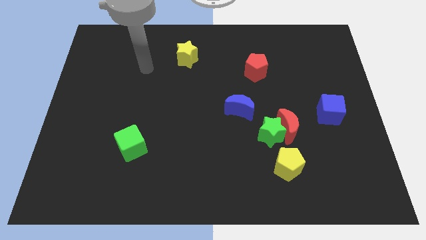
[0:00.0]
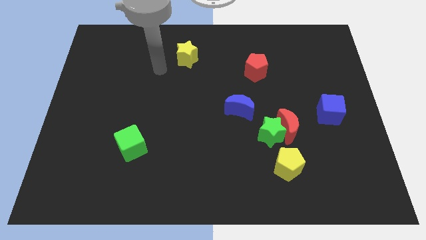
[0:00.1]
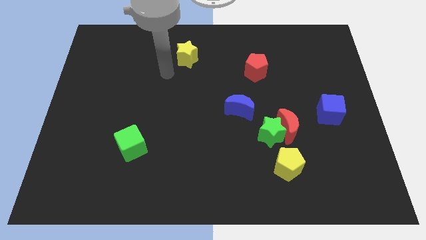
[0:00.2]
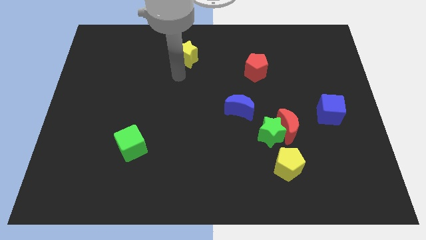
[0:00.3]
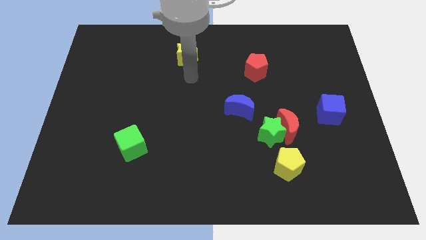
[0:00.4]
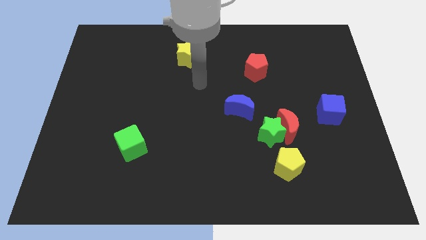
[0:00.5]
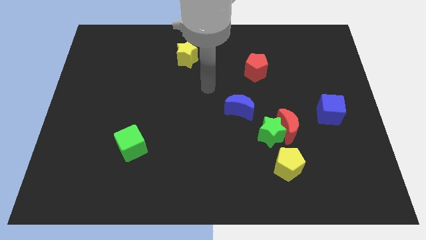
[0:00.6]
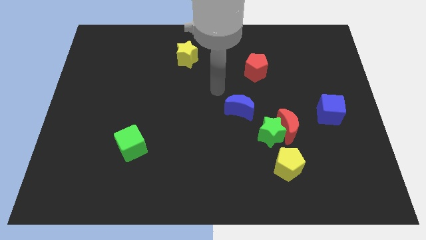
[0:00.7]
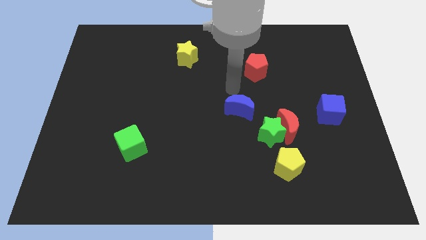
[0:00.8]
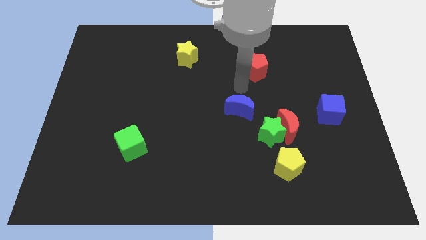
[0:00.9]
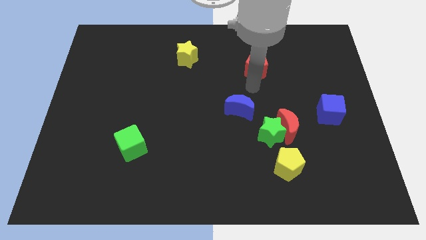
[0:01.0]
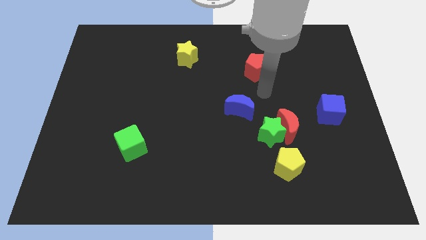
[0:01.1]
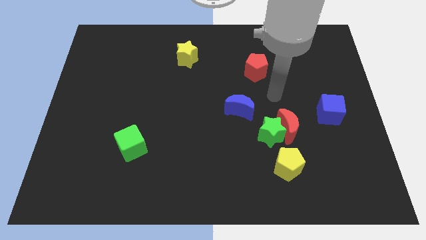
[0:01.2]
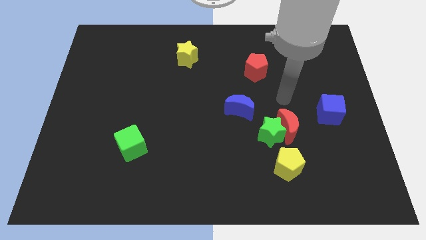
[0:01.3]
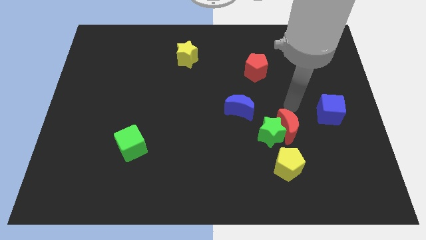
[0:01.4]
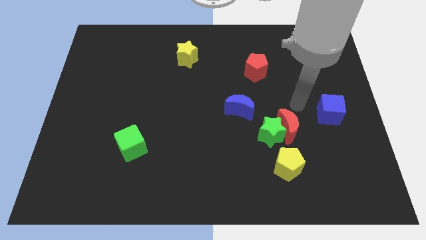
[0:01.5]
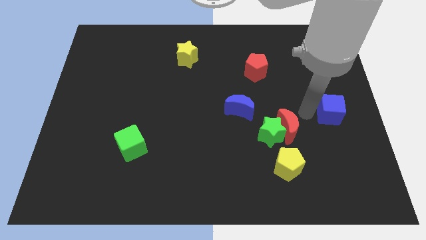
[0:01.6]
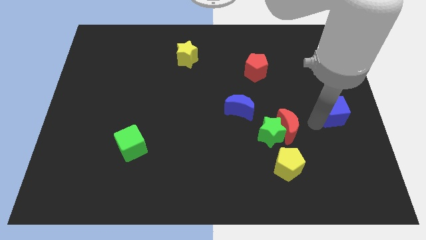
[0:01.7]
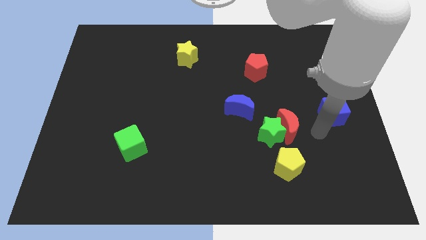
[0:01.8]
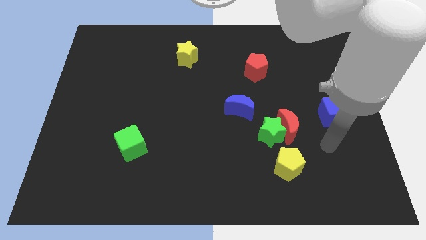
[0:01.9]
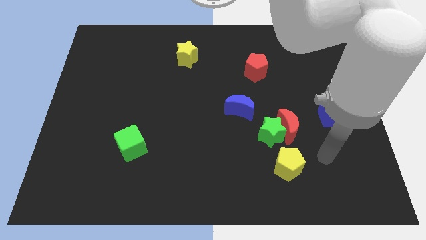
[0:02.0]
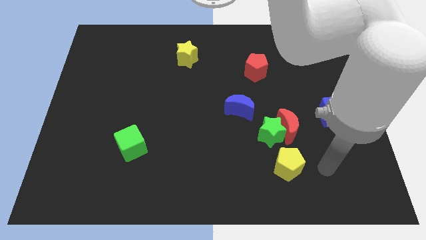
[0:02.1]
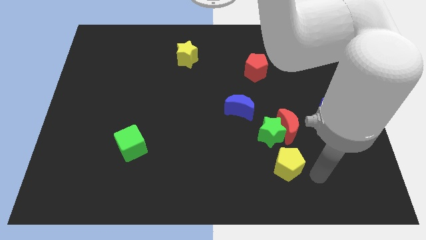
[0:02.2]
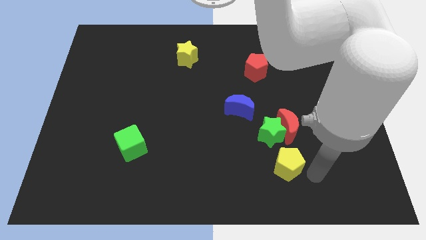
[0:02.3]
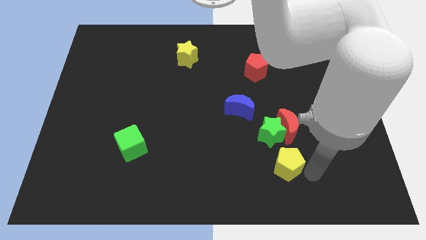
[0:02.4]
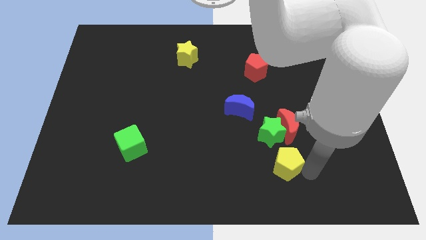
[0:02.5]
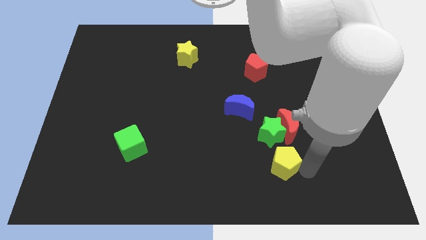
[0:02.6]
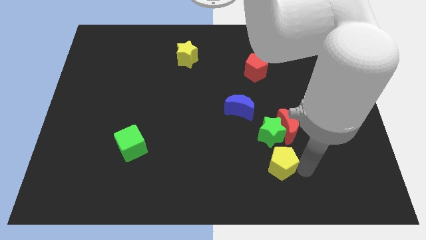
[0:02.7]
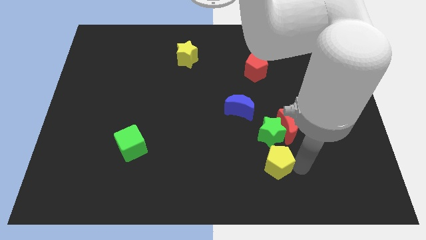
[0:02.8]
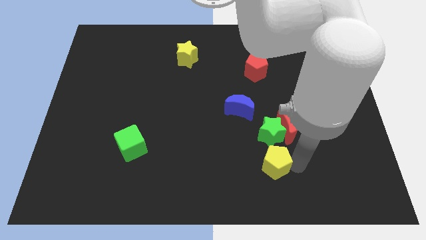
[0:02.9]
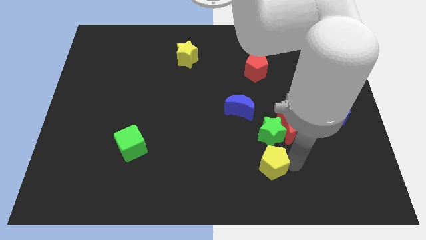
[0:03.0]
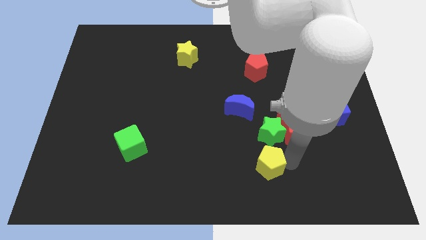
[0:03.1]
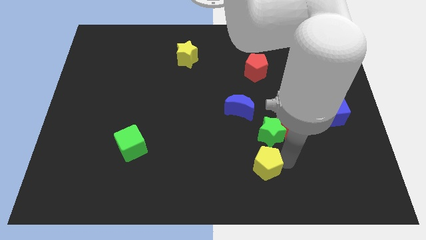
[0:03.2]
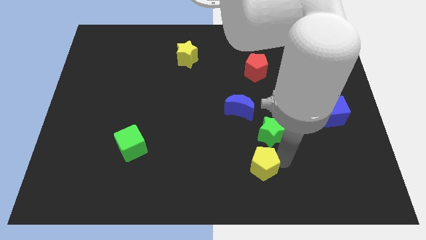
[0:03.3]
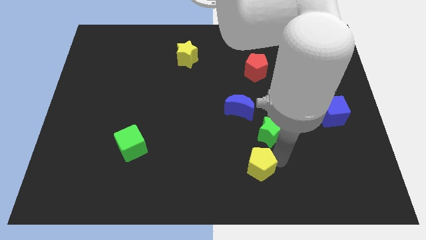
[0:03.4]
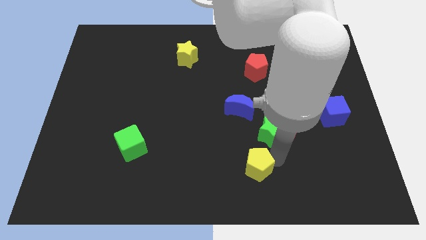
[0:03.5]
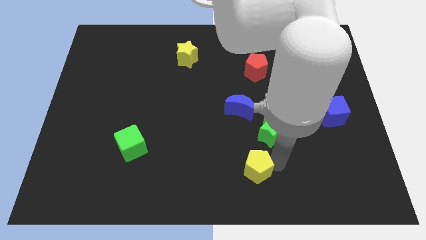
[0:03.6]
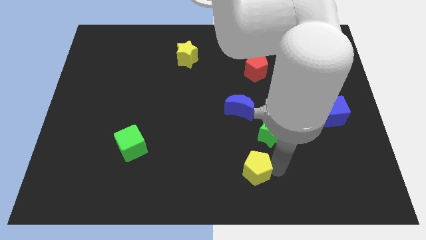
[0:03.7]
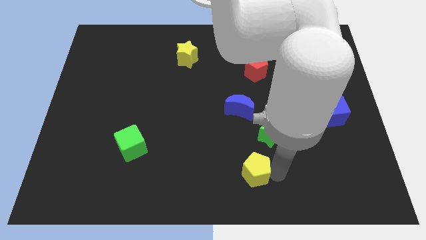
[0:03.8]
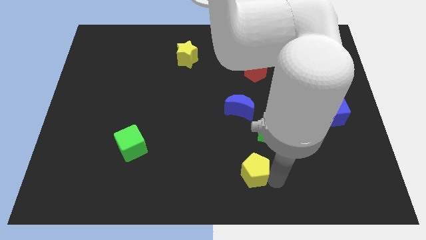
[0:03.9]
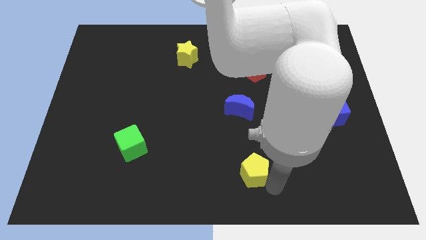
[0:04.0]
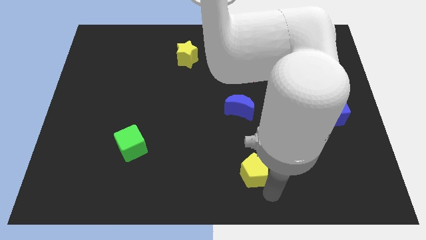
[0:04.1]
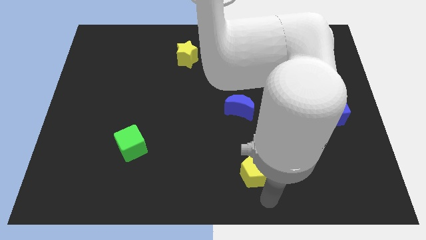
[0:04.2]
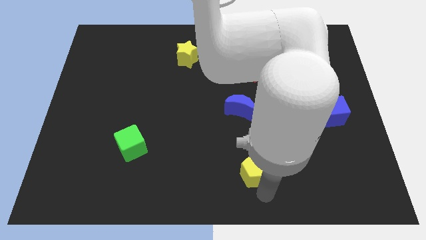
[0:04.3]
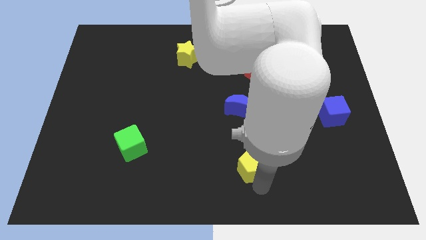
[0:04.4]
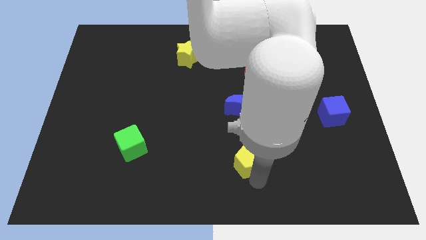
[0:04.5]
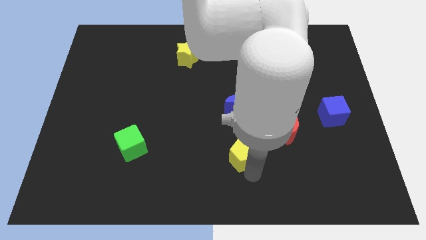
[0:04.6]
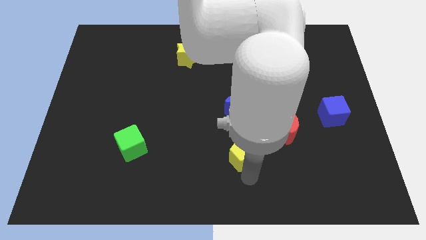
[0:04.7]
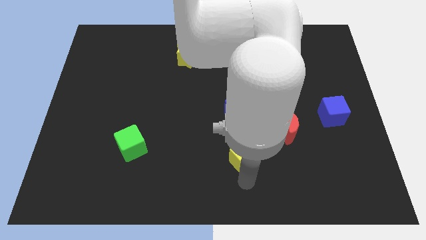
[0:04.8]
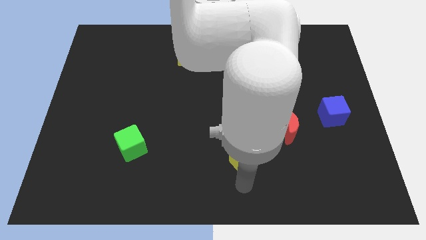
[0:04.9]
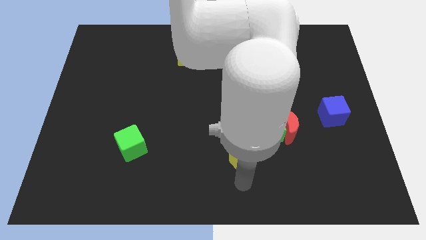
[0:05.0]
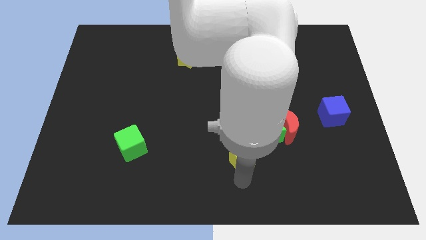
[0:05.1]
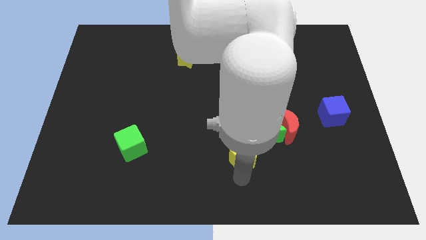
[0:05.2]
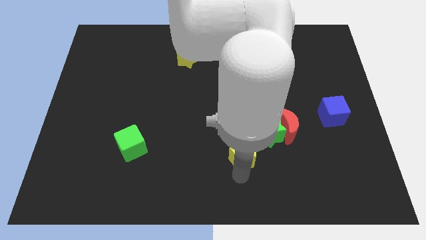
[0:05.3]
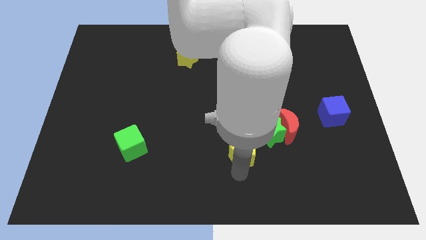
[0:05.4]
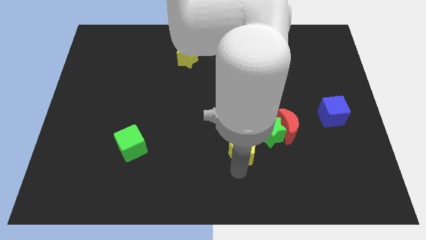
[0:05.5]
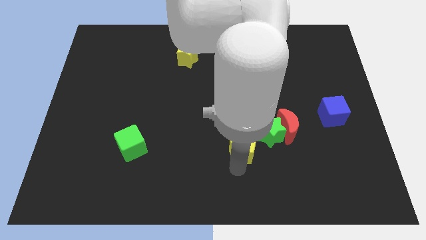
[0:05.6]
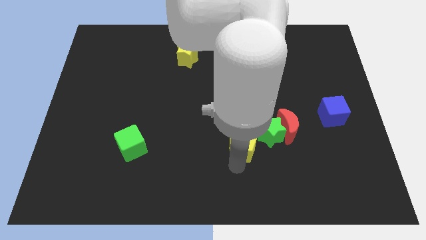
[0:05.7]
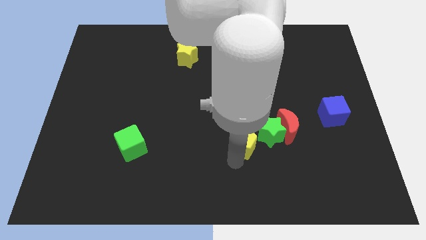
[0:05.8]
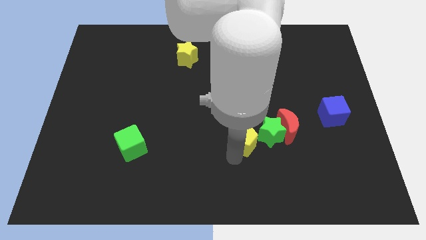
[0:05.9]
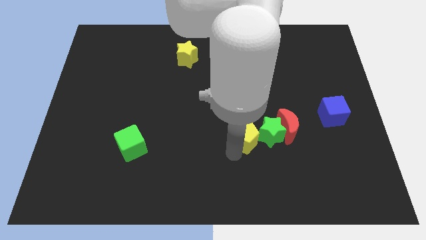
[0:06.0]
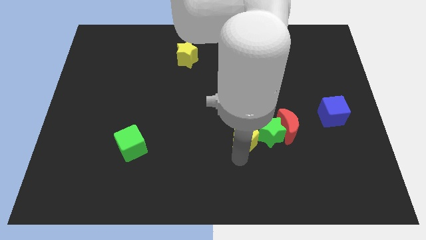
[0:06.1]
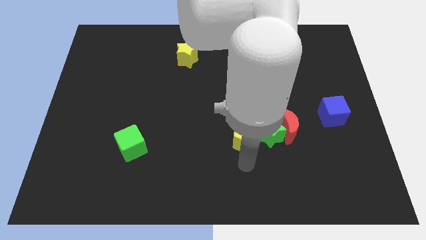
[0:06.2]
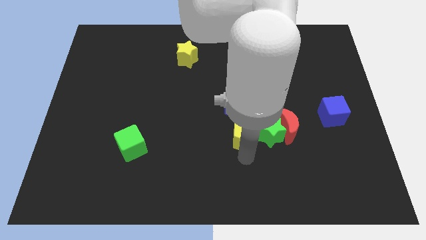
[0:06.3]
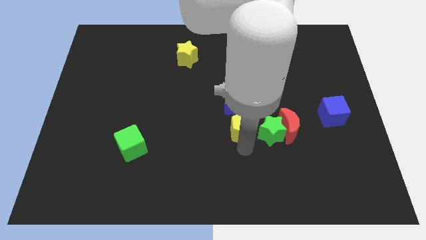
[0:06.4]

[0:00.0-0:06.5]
move the yellow pentagon next to the blue moon

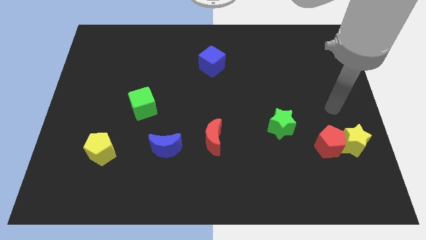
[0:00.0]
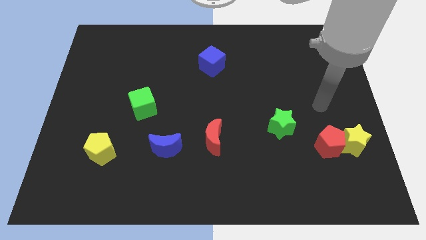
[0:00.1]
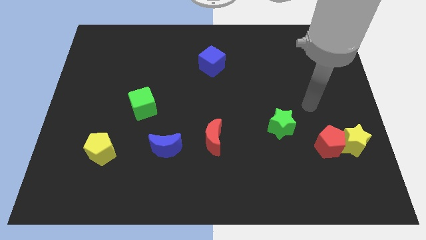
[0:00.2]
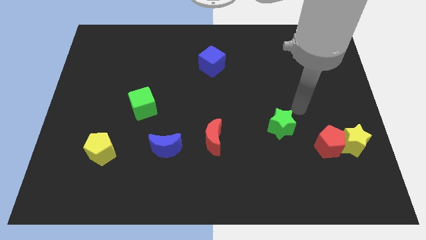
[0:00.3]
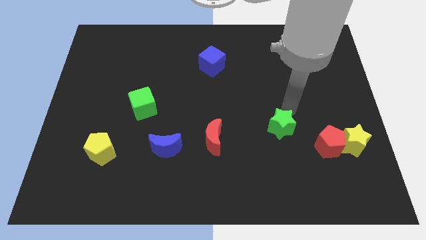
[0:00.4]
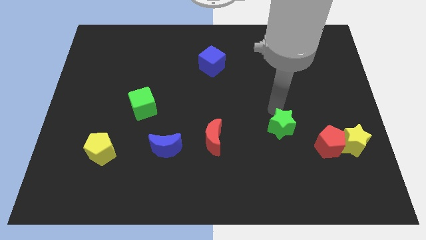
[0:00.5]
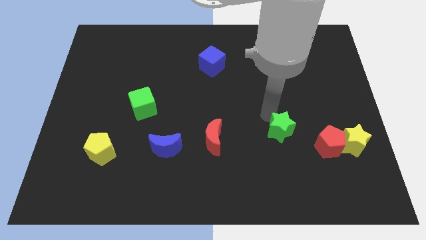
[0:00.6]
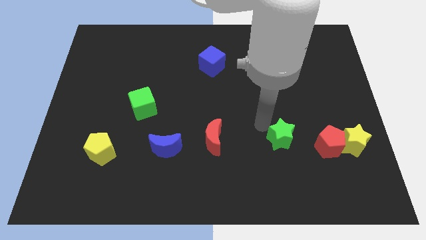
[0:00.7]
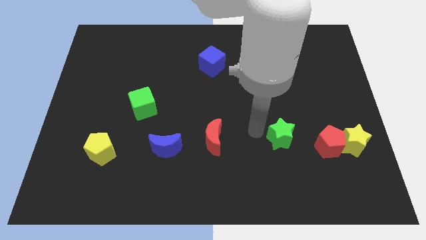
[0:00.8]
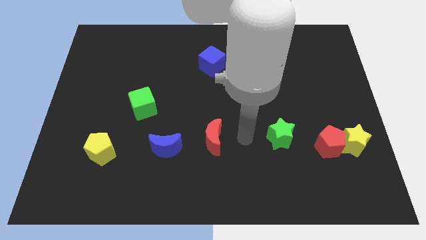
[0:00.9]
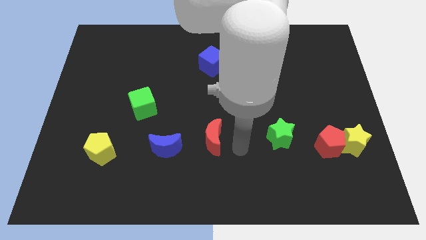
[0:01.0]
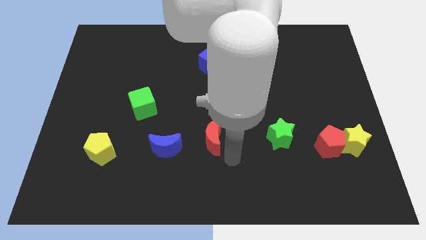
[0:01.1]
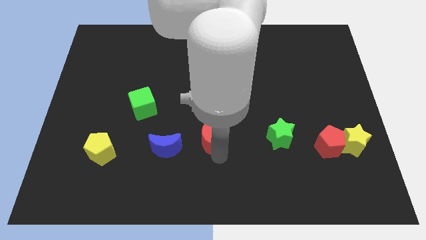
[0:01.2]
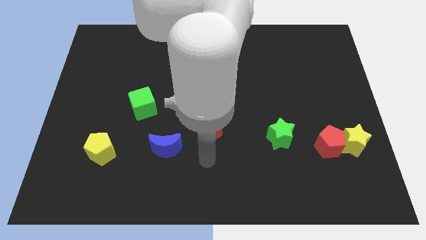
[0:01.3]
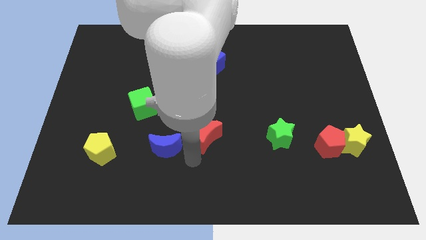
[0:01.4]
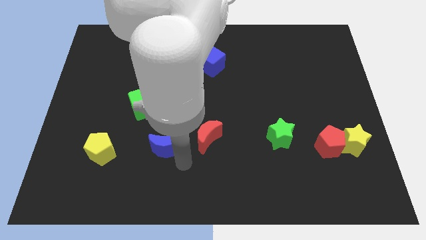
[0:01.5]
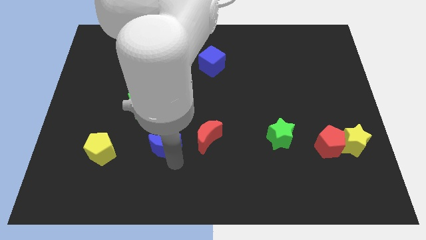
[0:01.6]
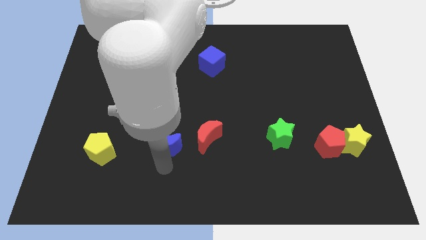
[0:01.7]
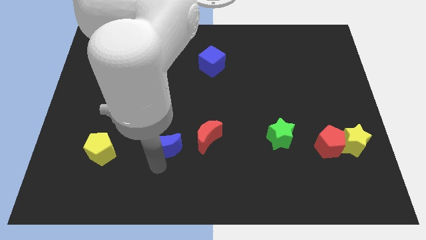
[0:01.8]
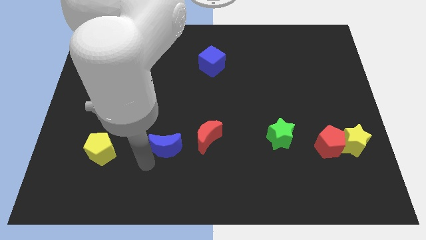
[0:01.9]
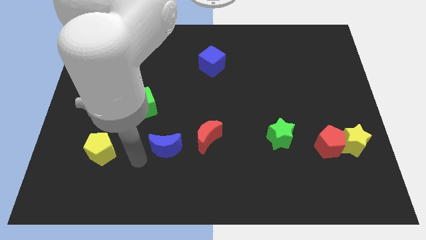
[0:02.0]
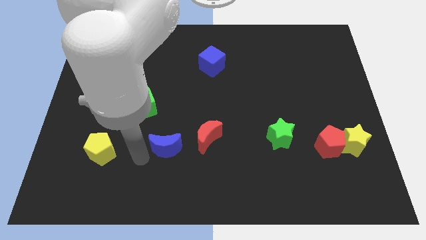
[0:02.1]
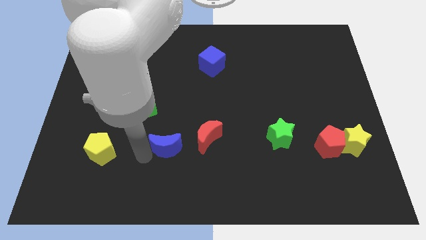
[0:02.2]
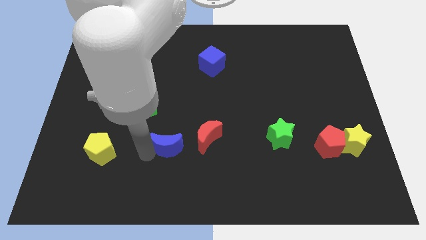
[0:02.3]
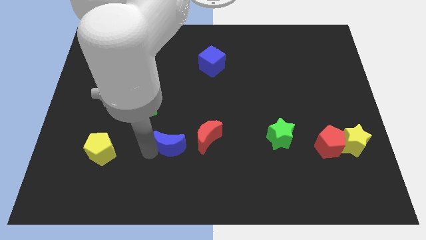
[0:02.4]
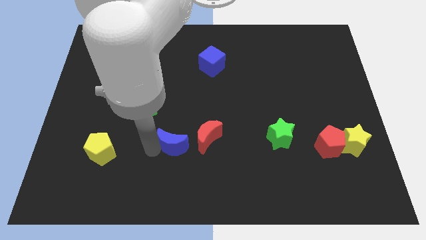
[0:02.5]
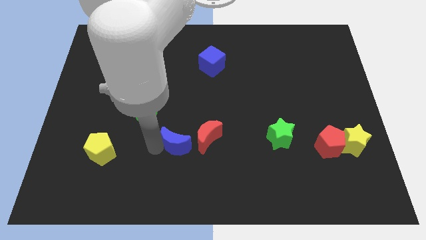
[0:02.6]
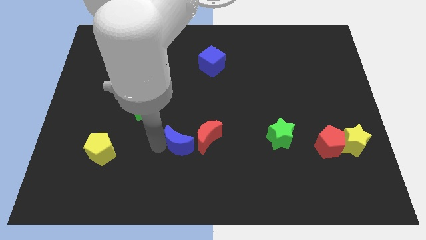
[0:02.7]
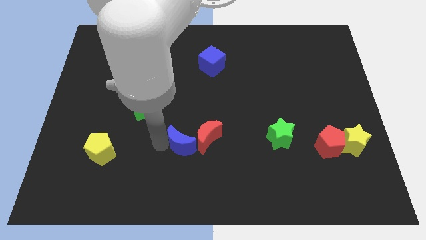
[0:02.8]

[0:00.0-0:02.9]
move the blue moon towards the red moon
